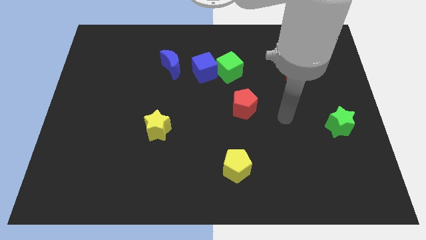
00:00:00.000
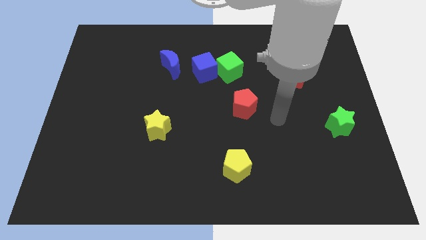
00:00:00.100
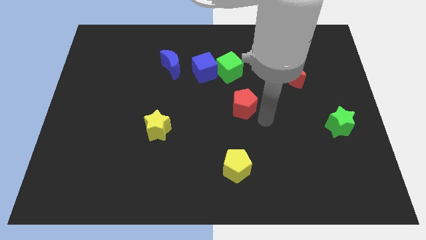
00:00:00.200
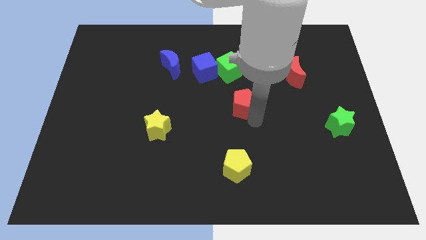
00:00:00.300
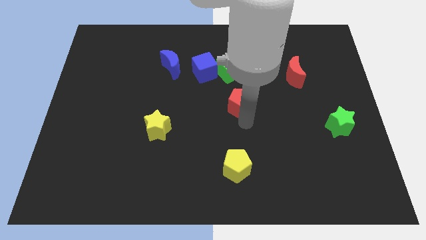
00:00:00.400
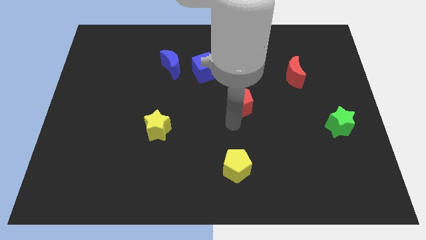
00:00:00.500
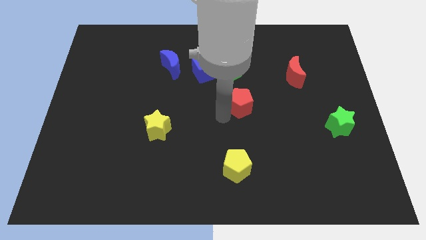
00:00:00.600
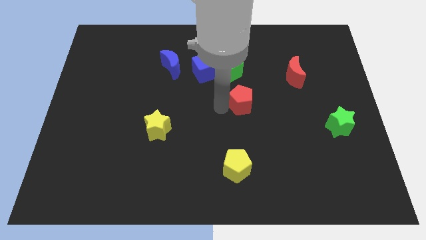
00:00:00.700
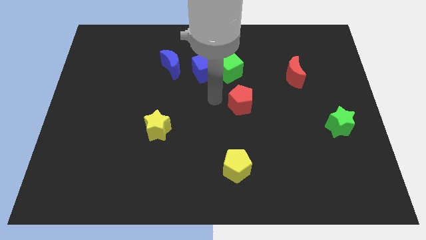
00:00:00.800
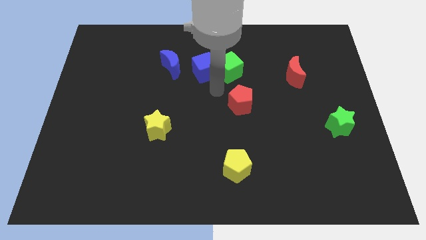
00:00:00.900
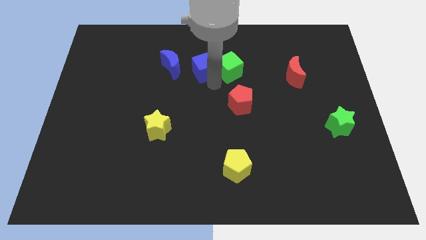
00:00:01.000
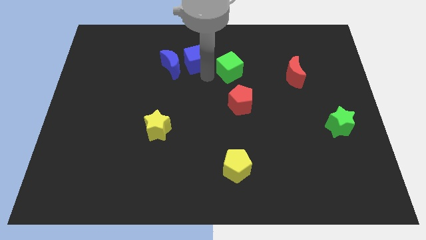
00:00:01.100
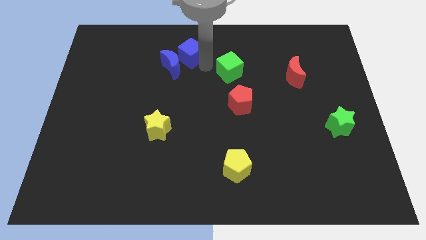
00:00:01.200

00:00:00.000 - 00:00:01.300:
move the green cube away from the blue cube

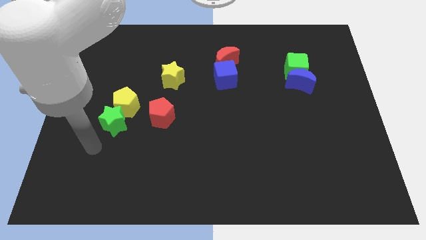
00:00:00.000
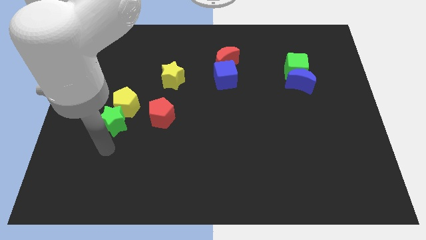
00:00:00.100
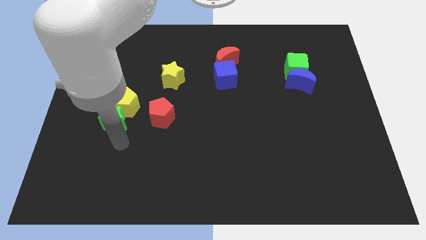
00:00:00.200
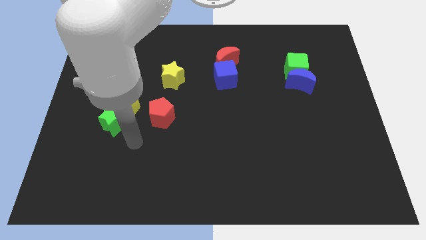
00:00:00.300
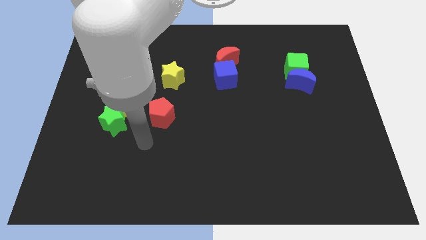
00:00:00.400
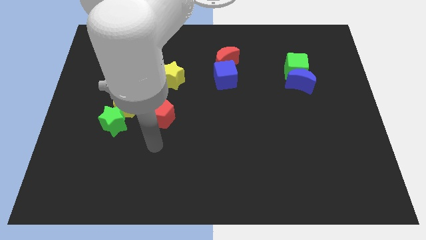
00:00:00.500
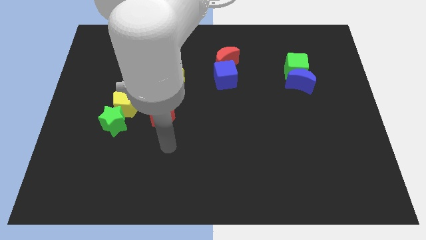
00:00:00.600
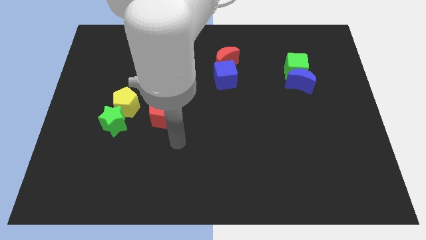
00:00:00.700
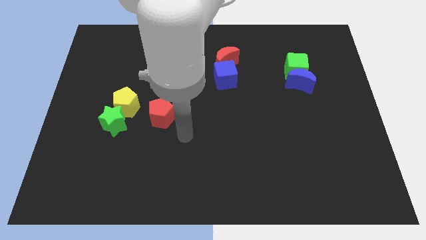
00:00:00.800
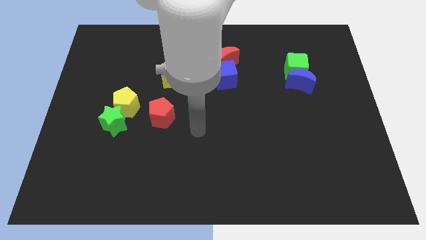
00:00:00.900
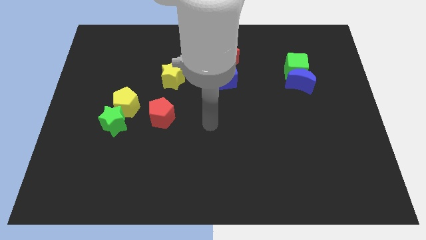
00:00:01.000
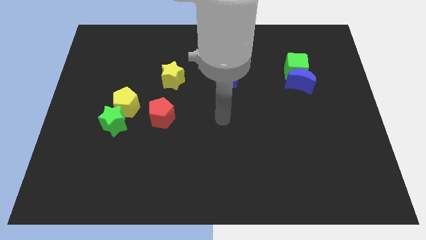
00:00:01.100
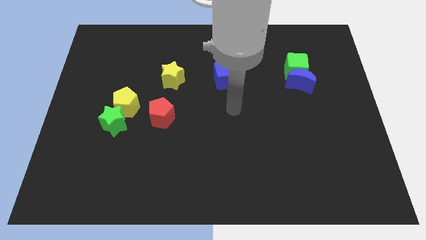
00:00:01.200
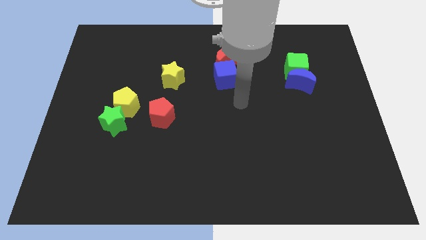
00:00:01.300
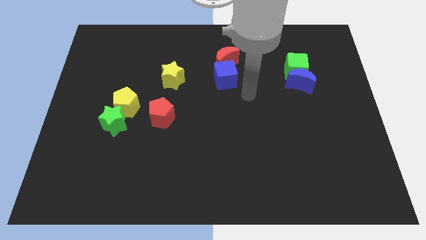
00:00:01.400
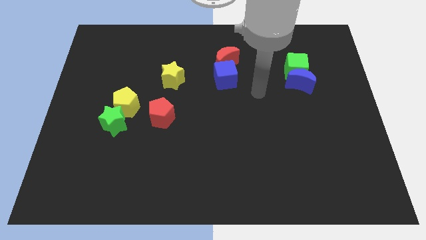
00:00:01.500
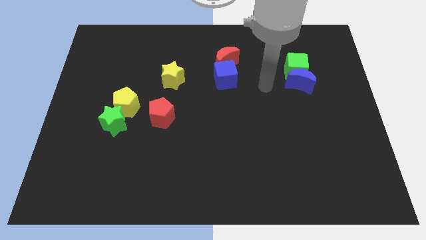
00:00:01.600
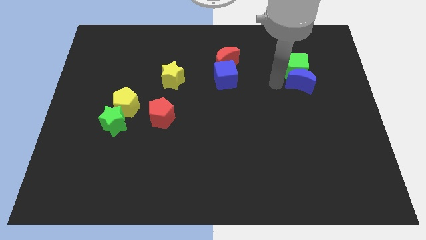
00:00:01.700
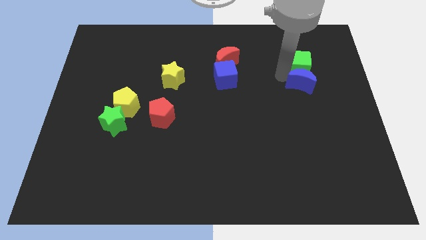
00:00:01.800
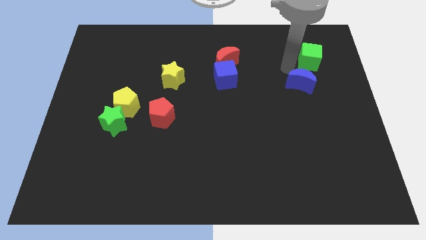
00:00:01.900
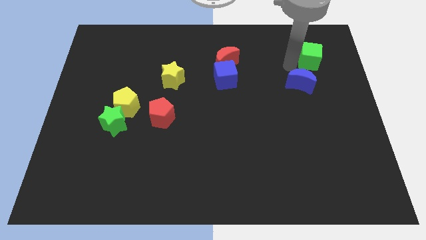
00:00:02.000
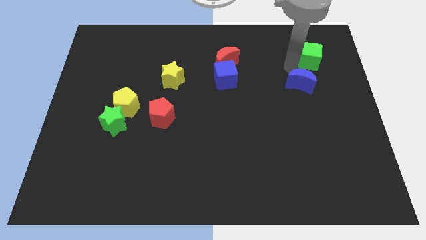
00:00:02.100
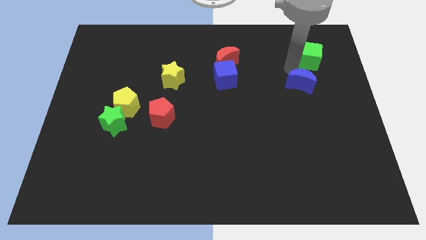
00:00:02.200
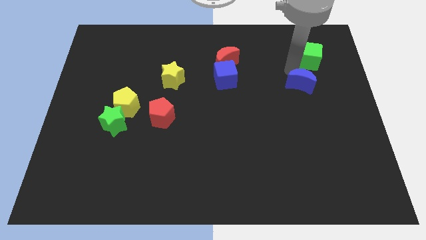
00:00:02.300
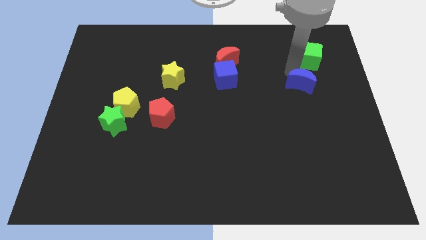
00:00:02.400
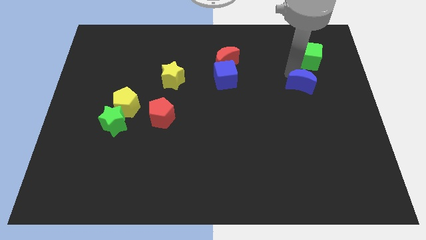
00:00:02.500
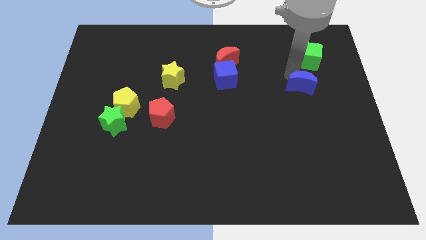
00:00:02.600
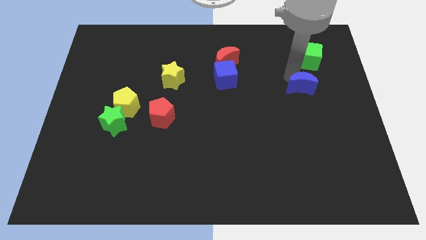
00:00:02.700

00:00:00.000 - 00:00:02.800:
pull the blue moon apart from the green cube

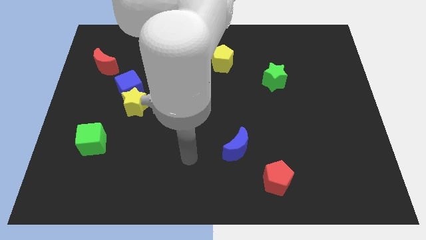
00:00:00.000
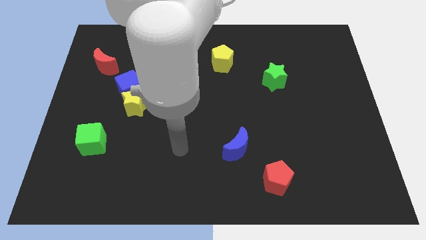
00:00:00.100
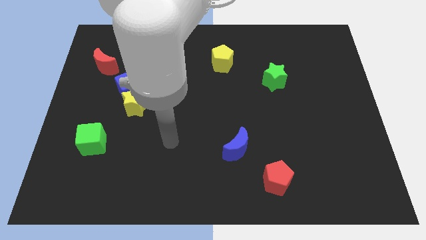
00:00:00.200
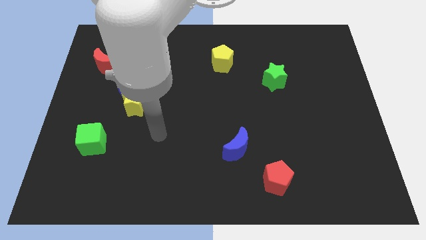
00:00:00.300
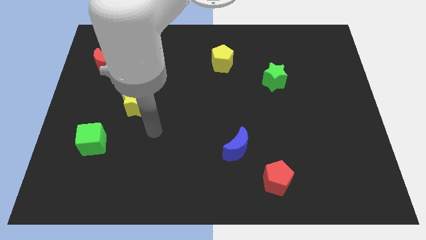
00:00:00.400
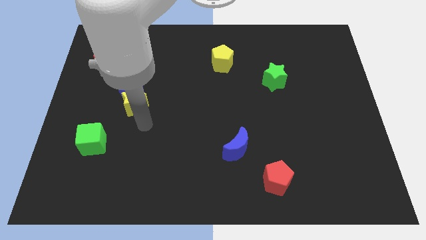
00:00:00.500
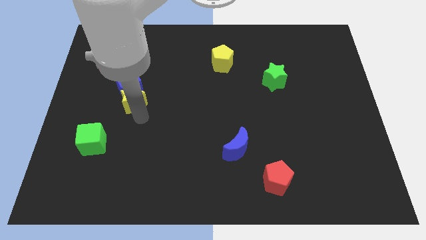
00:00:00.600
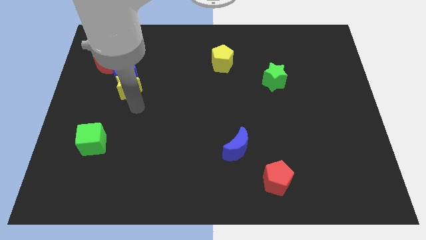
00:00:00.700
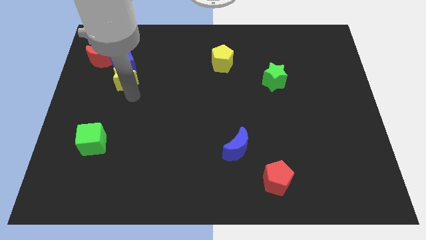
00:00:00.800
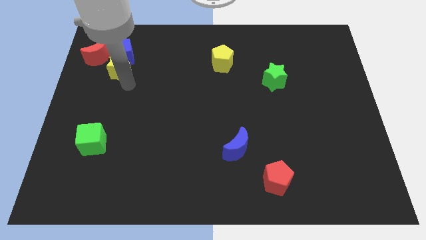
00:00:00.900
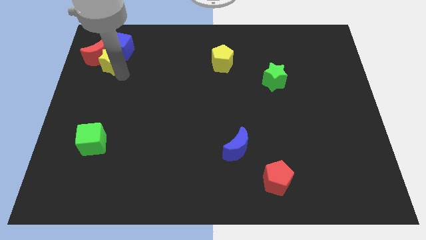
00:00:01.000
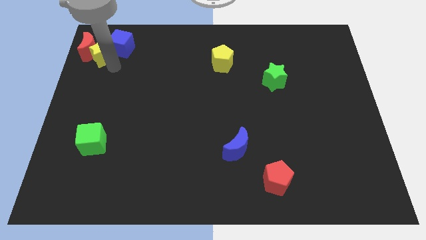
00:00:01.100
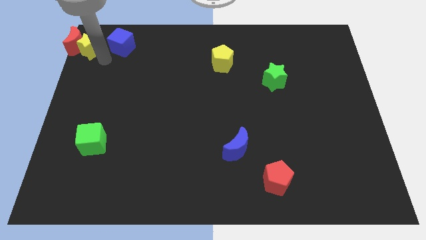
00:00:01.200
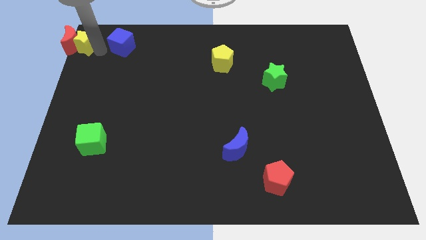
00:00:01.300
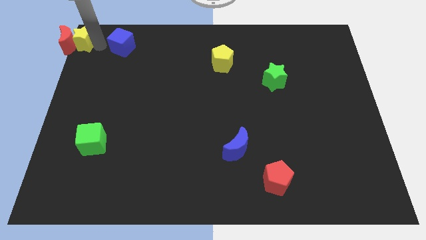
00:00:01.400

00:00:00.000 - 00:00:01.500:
separate the blue cube from the yellow star

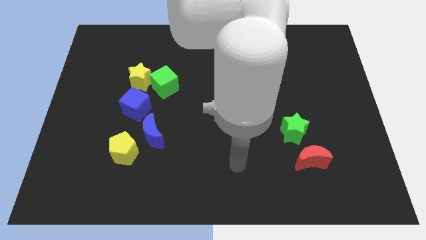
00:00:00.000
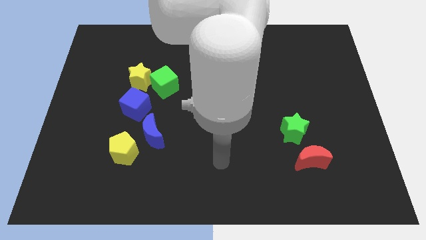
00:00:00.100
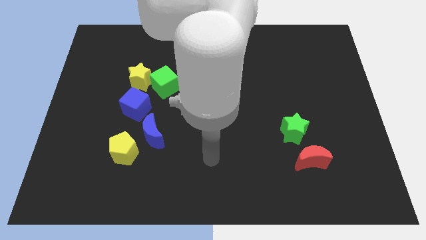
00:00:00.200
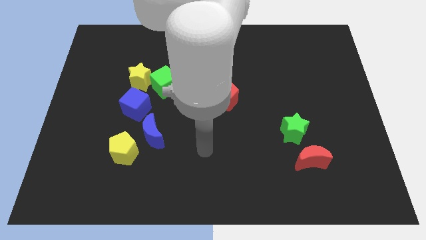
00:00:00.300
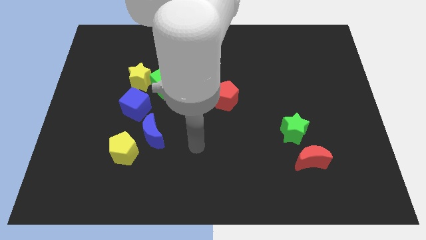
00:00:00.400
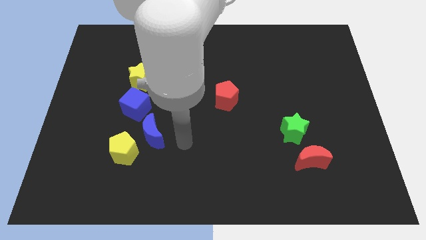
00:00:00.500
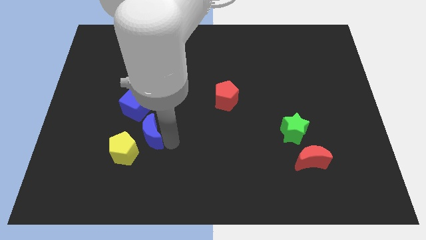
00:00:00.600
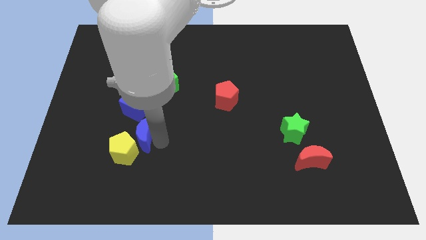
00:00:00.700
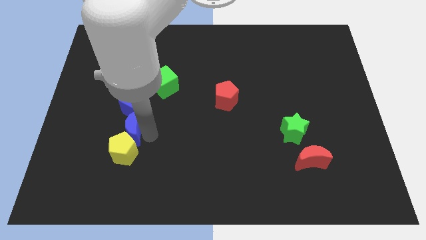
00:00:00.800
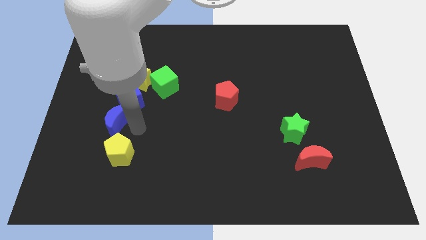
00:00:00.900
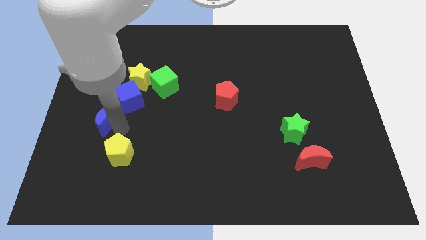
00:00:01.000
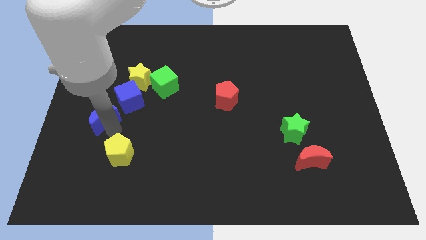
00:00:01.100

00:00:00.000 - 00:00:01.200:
pull the yellow pentagon apart from the blue moon

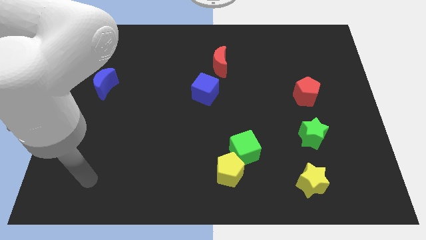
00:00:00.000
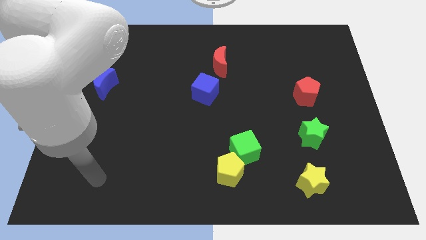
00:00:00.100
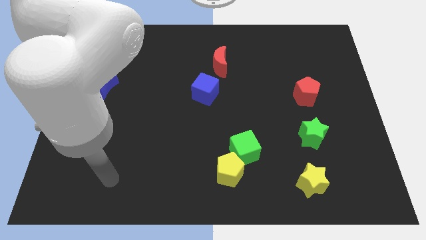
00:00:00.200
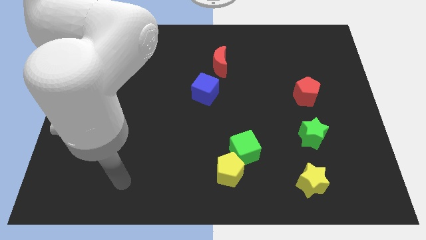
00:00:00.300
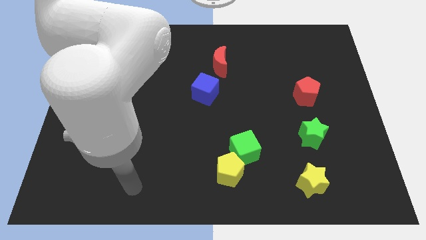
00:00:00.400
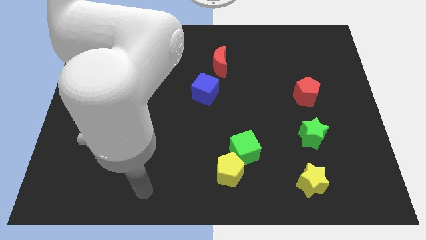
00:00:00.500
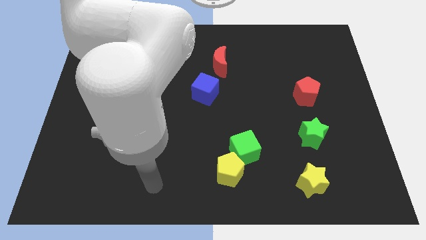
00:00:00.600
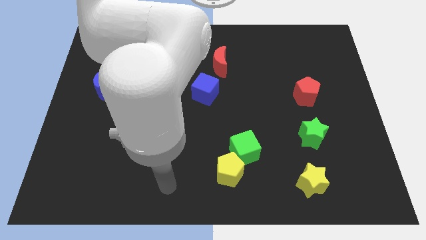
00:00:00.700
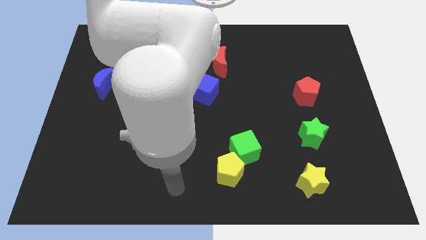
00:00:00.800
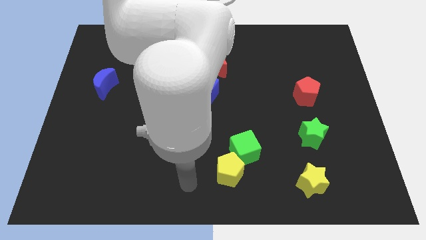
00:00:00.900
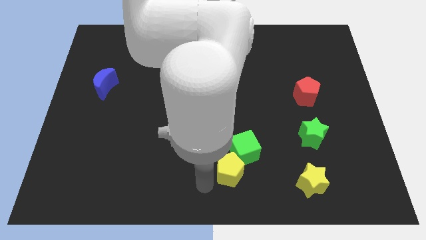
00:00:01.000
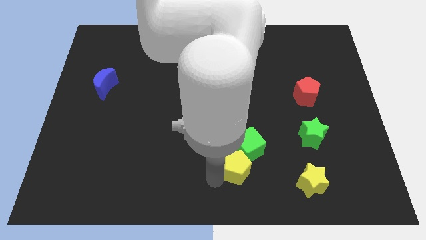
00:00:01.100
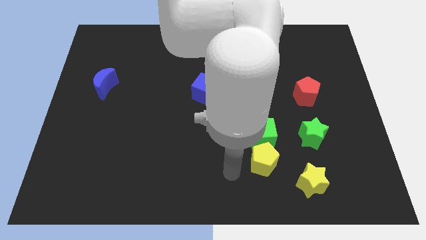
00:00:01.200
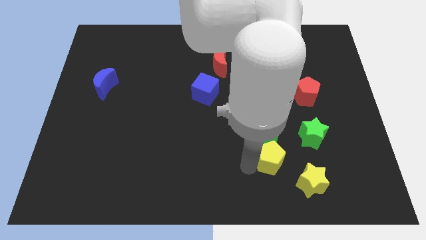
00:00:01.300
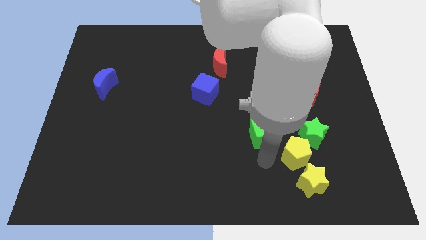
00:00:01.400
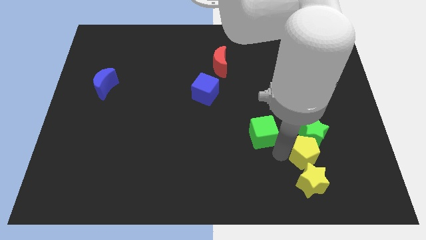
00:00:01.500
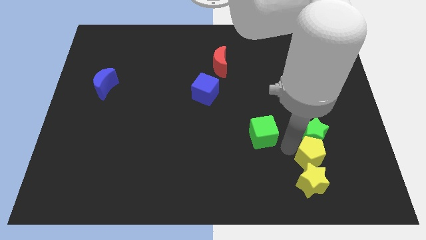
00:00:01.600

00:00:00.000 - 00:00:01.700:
move the green cube away from the yellow pentagon

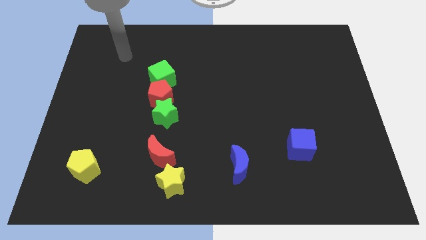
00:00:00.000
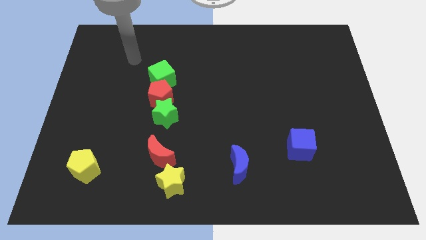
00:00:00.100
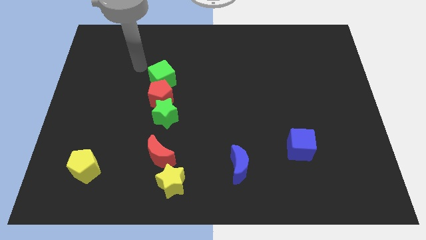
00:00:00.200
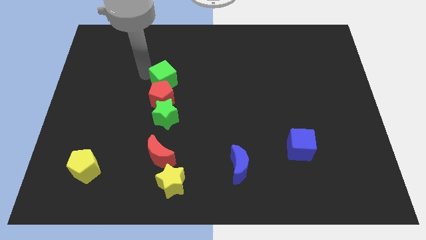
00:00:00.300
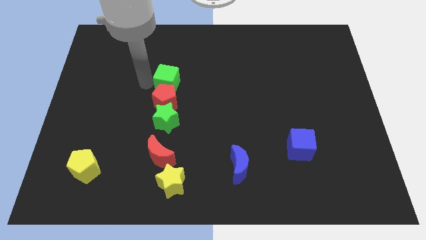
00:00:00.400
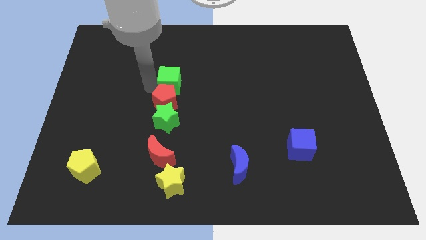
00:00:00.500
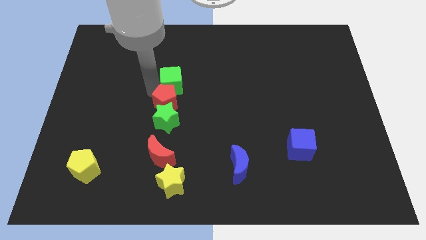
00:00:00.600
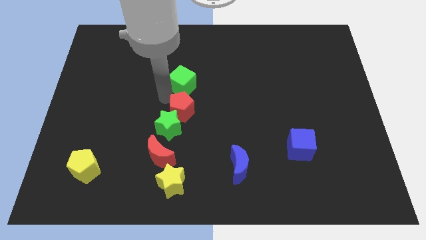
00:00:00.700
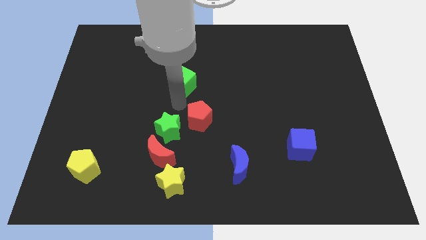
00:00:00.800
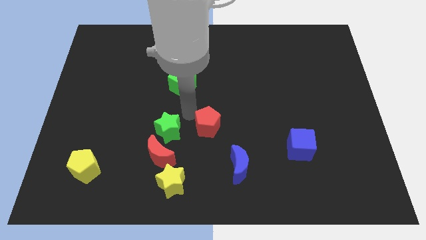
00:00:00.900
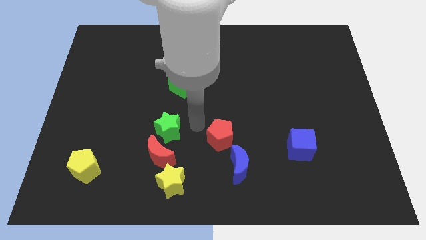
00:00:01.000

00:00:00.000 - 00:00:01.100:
move the green star away from the red pentagon
